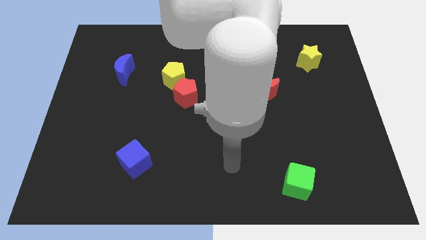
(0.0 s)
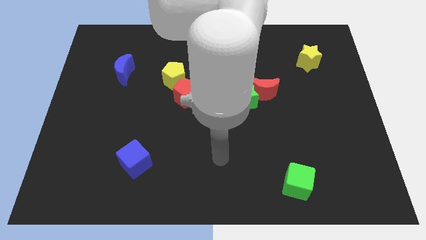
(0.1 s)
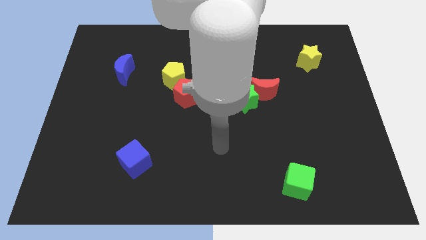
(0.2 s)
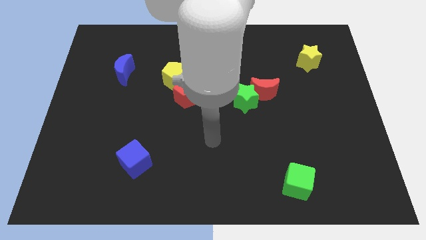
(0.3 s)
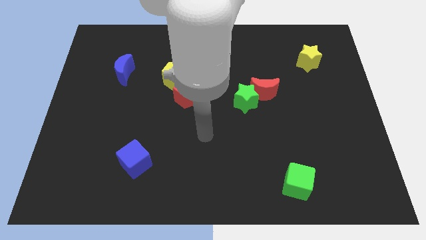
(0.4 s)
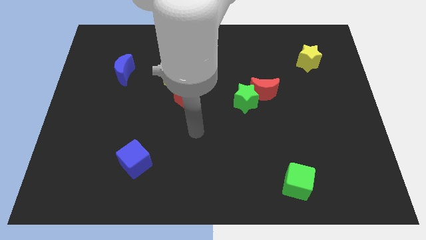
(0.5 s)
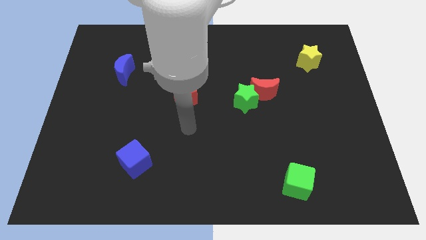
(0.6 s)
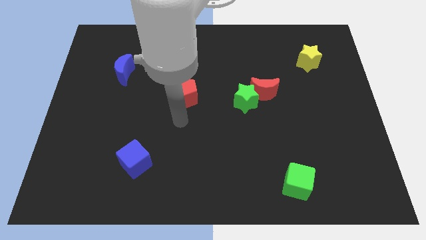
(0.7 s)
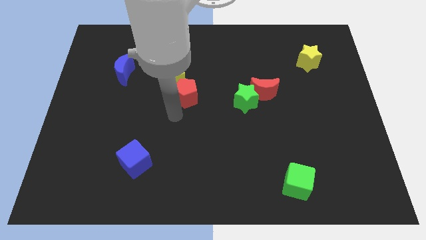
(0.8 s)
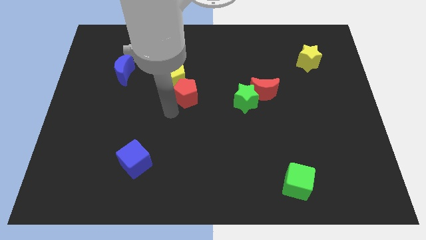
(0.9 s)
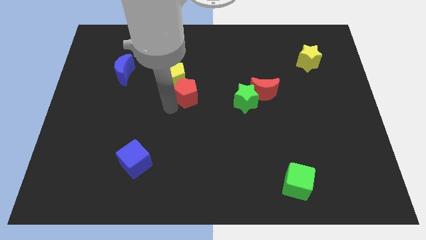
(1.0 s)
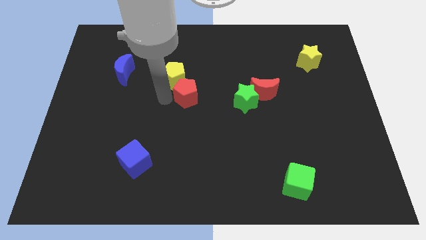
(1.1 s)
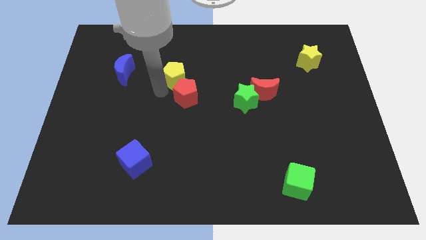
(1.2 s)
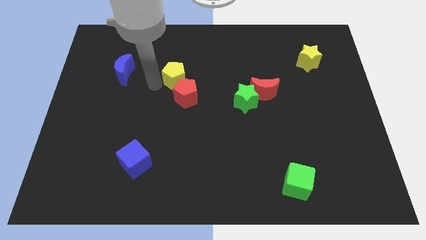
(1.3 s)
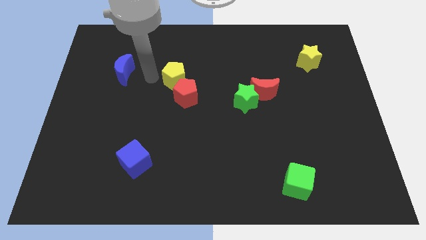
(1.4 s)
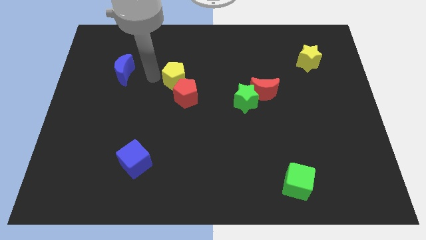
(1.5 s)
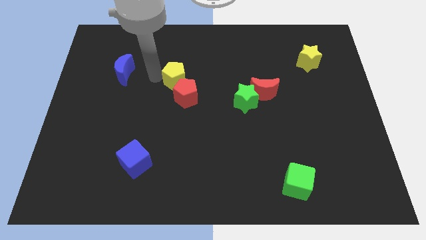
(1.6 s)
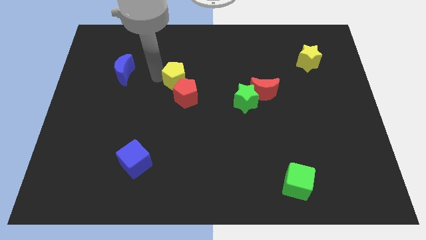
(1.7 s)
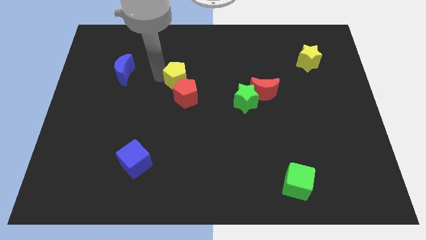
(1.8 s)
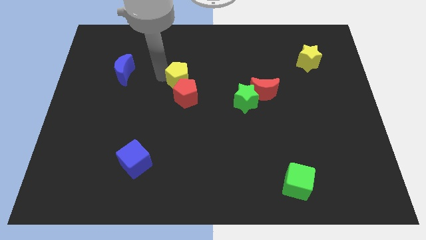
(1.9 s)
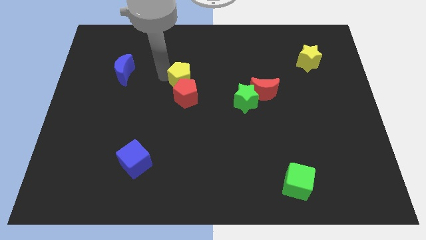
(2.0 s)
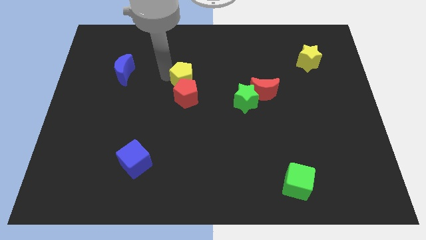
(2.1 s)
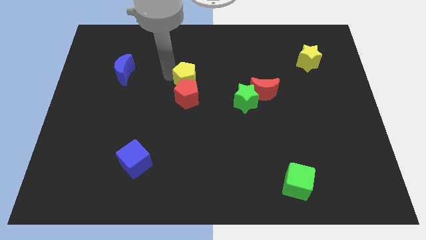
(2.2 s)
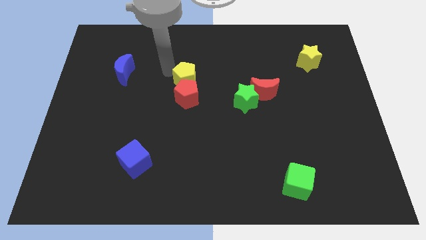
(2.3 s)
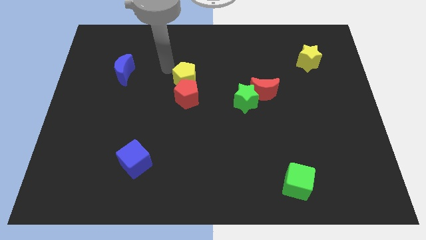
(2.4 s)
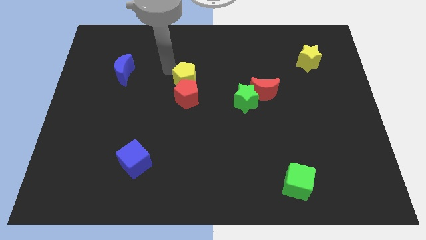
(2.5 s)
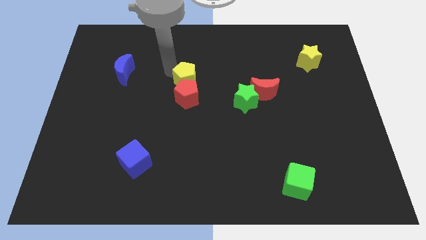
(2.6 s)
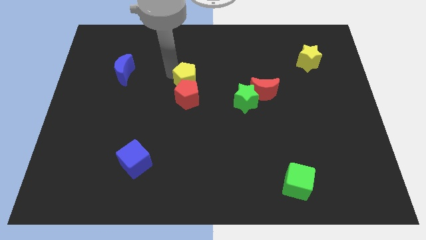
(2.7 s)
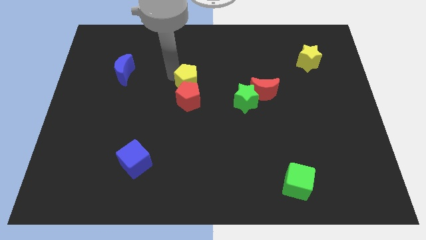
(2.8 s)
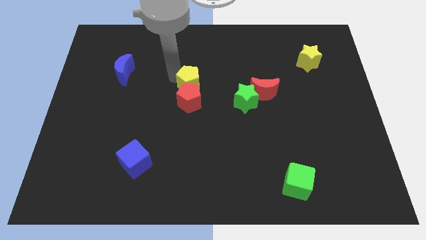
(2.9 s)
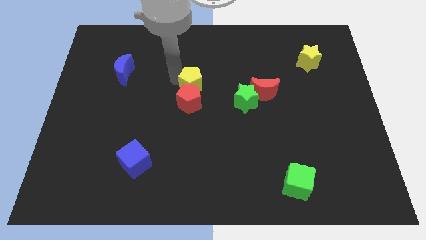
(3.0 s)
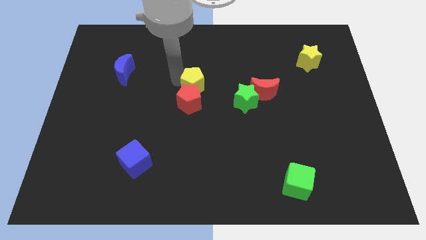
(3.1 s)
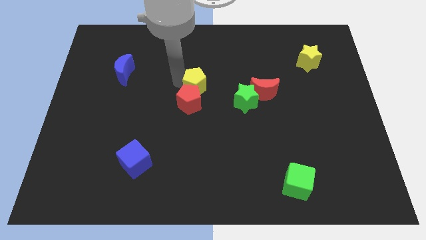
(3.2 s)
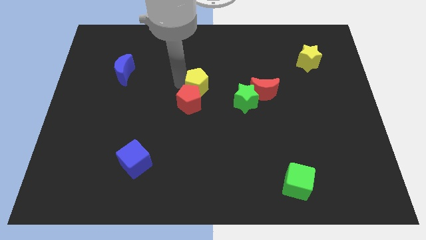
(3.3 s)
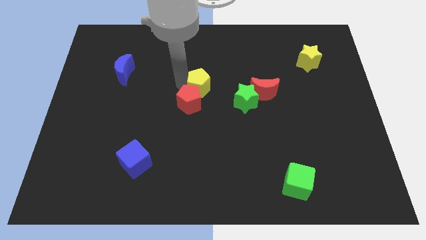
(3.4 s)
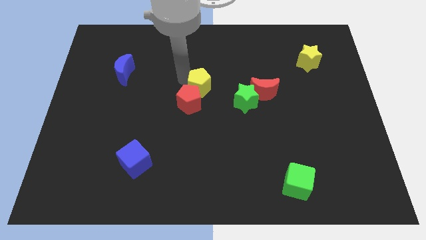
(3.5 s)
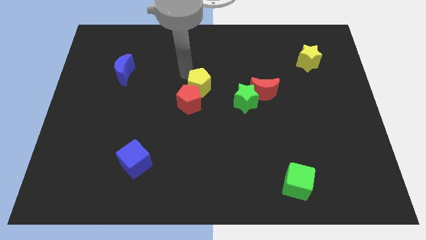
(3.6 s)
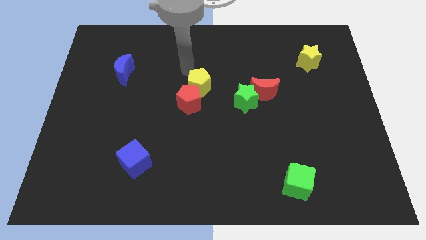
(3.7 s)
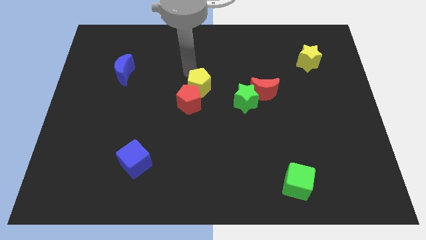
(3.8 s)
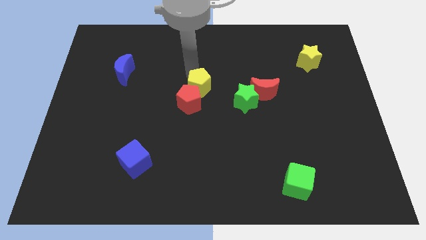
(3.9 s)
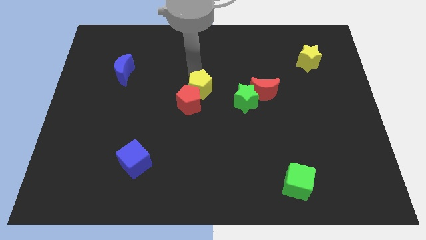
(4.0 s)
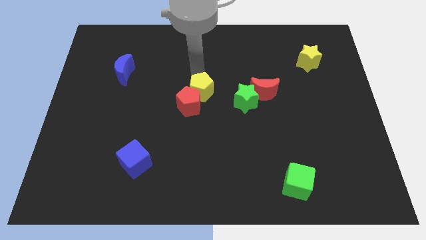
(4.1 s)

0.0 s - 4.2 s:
slightly slide the yellow pentagon downwards and right

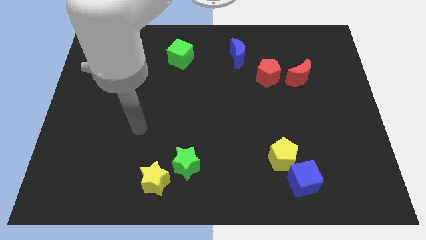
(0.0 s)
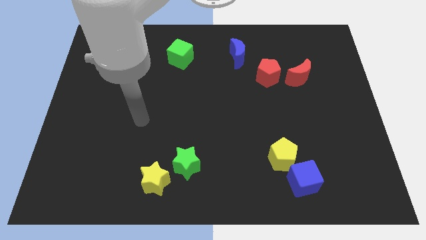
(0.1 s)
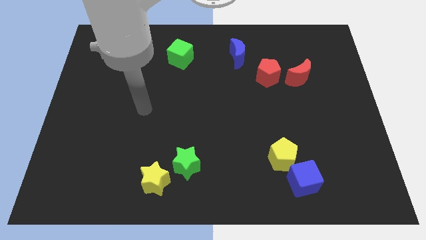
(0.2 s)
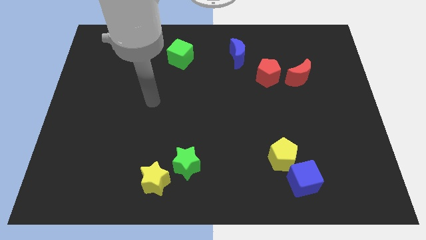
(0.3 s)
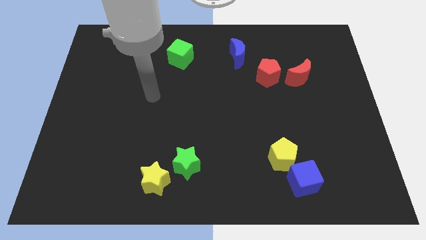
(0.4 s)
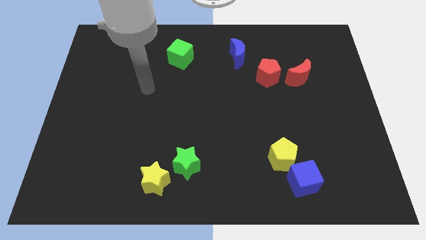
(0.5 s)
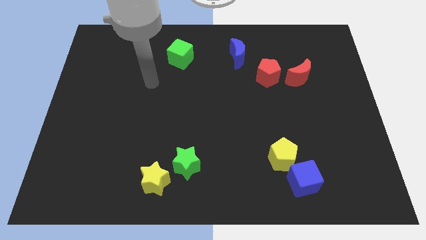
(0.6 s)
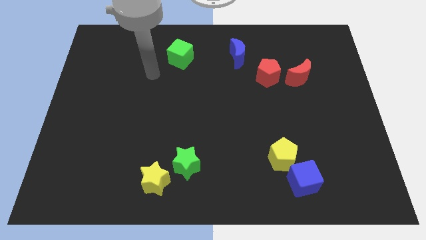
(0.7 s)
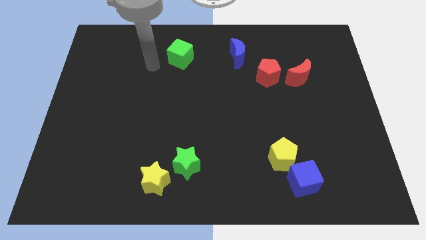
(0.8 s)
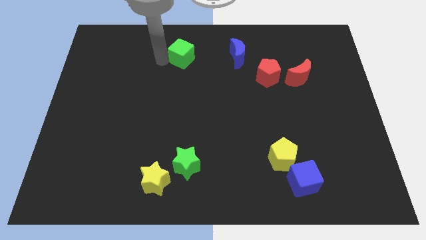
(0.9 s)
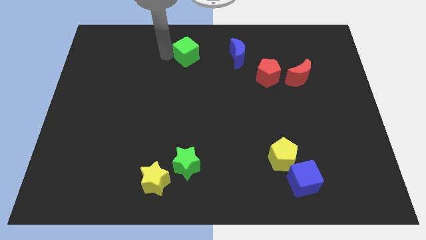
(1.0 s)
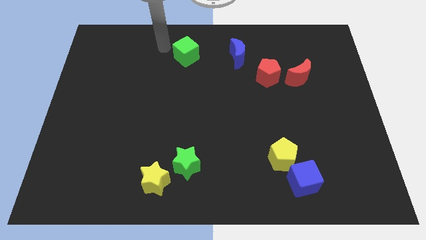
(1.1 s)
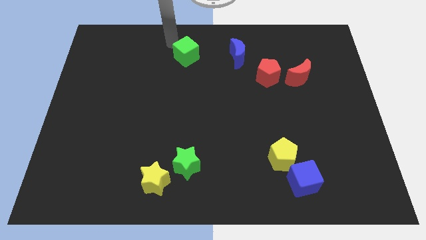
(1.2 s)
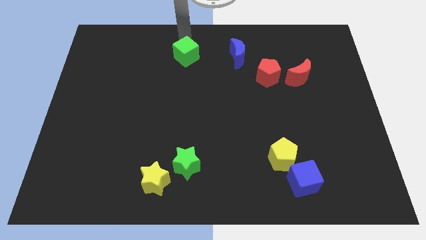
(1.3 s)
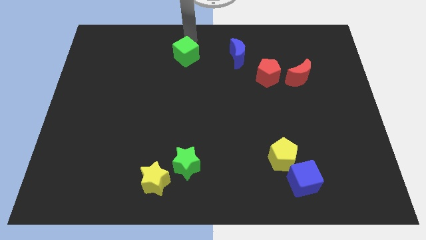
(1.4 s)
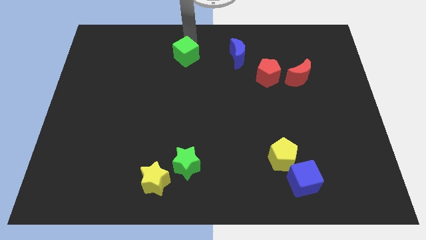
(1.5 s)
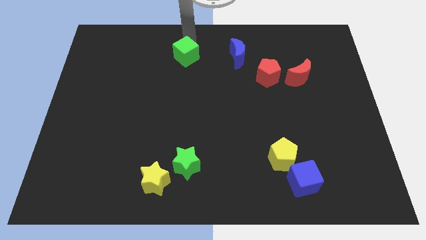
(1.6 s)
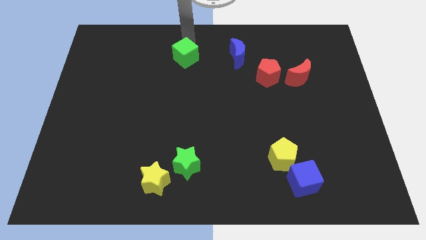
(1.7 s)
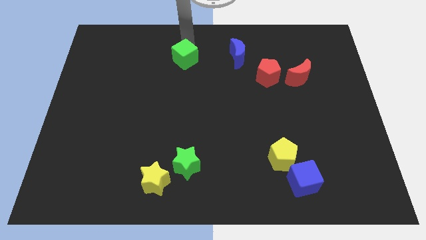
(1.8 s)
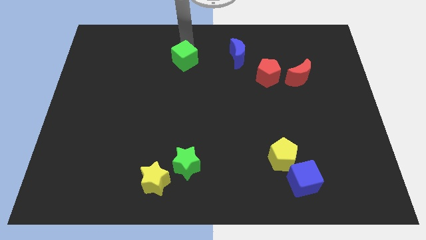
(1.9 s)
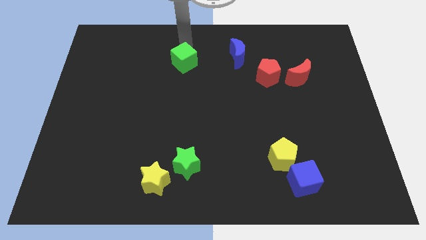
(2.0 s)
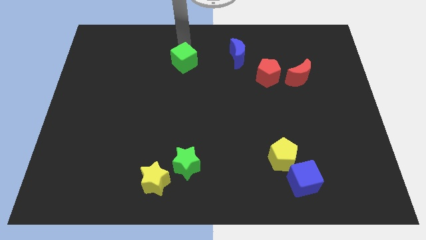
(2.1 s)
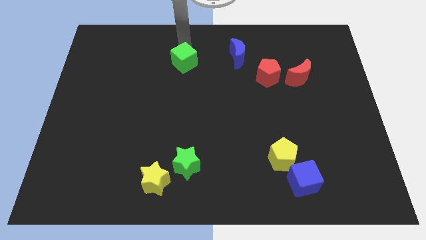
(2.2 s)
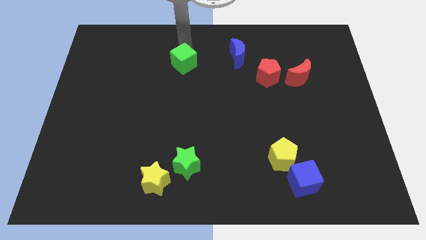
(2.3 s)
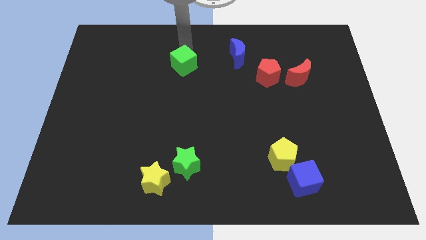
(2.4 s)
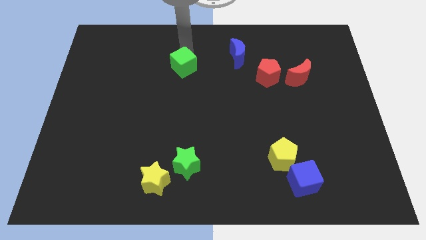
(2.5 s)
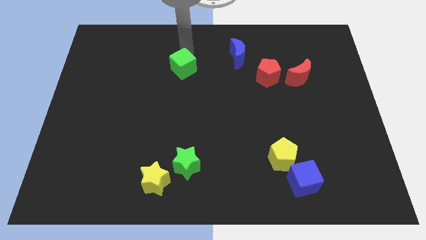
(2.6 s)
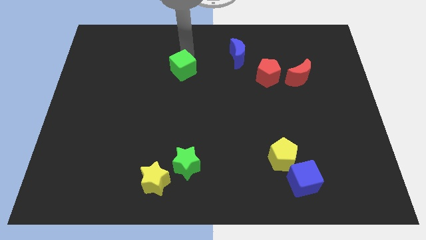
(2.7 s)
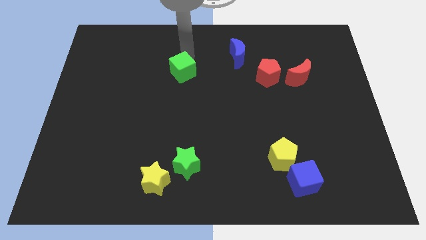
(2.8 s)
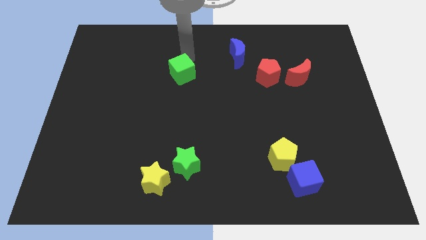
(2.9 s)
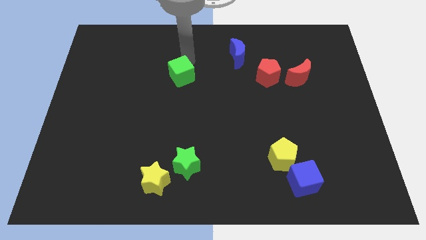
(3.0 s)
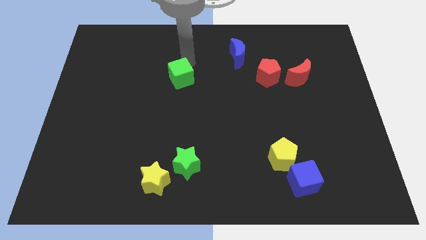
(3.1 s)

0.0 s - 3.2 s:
slide the green cube a little down

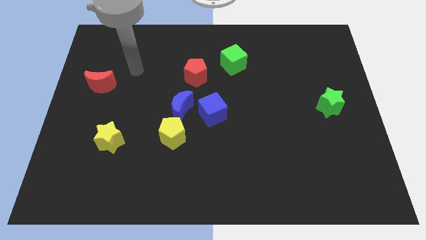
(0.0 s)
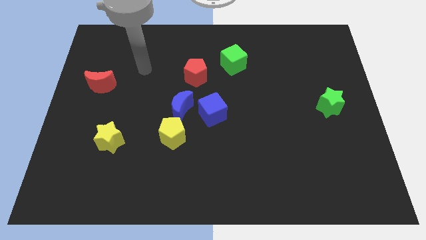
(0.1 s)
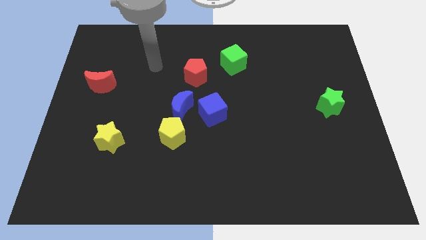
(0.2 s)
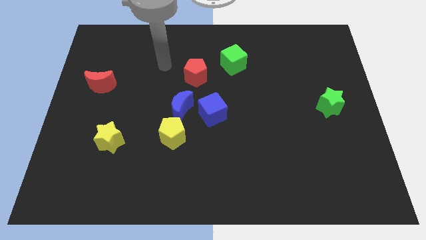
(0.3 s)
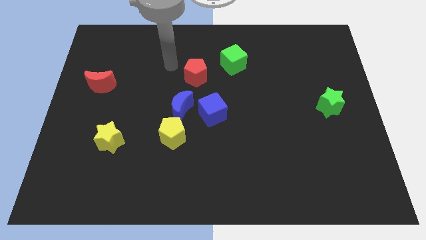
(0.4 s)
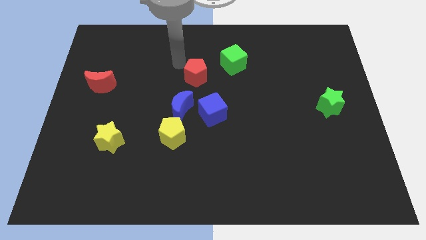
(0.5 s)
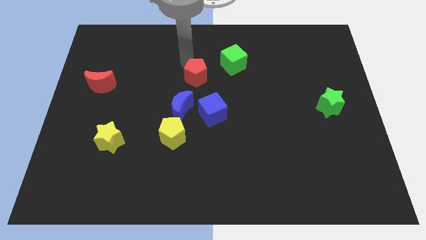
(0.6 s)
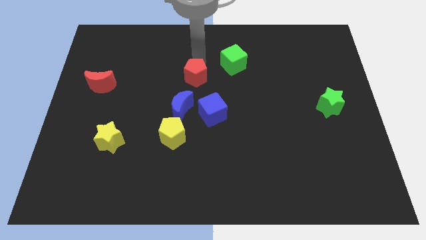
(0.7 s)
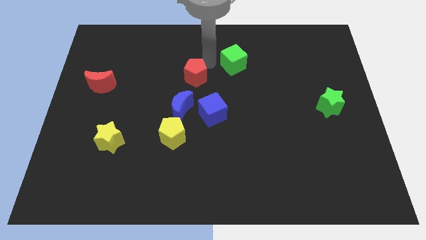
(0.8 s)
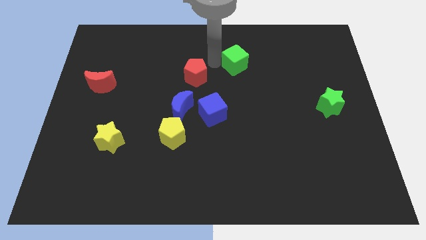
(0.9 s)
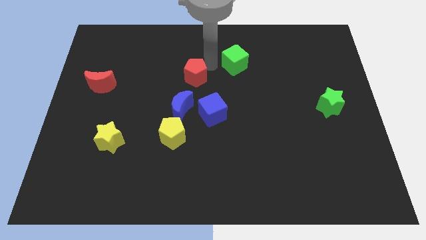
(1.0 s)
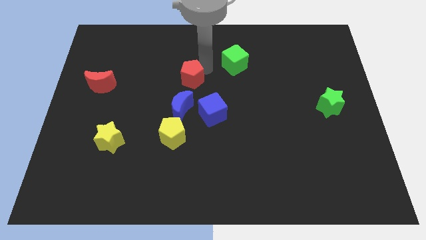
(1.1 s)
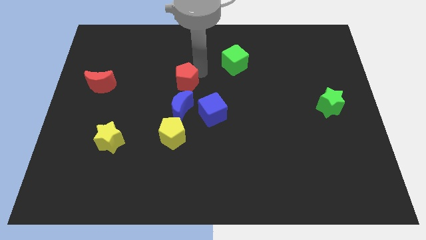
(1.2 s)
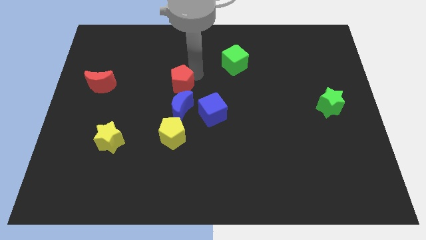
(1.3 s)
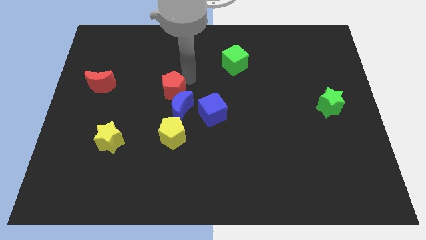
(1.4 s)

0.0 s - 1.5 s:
slightly move the red pentagon downwards and then to the left
